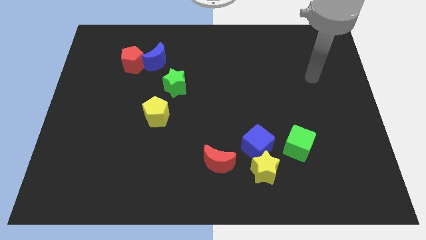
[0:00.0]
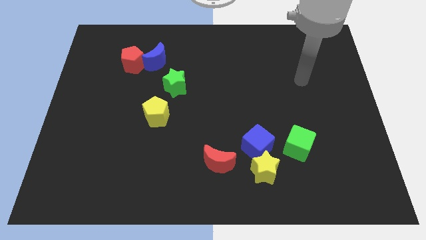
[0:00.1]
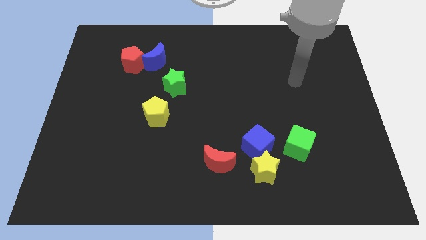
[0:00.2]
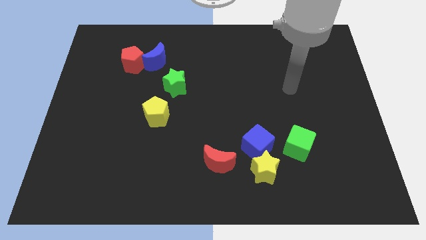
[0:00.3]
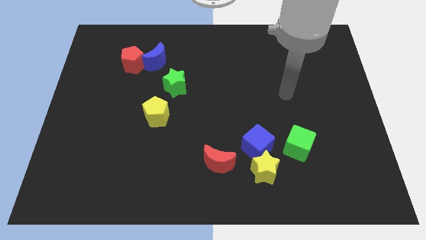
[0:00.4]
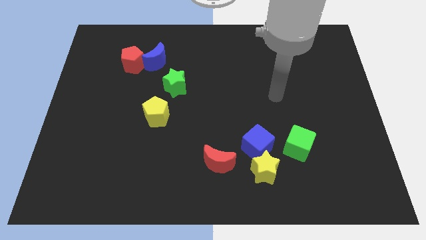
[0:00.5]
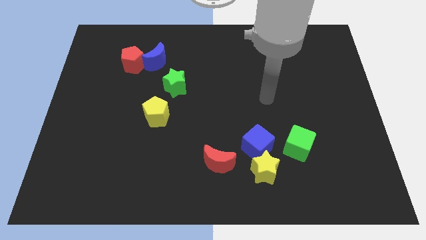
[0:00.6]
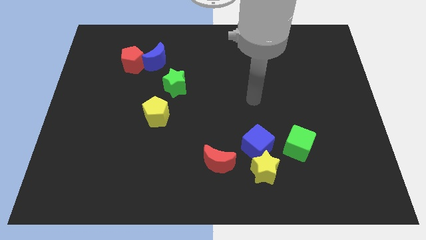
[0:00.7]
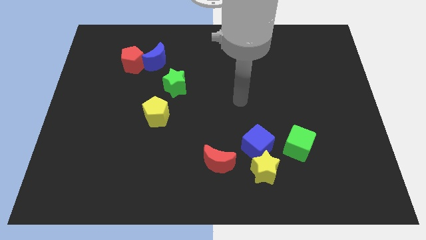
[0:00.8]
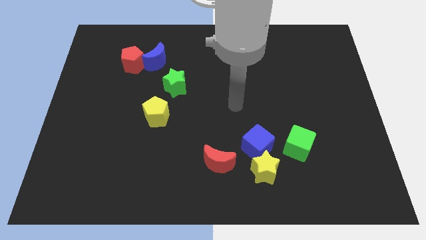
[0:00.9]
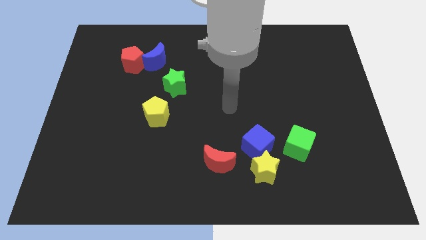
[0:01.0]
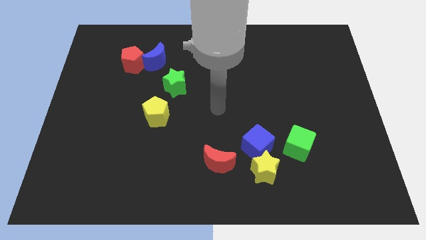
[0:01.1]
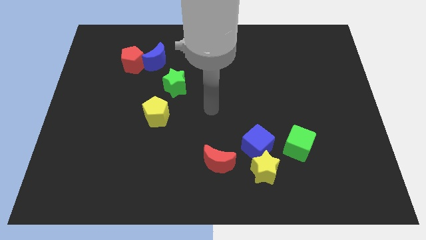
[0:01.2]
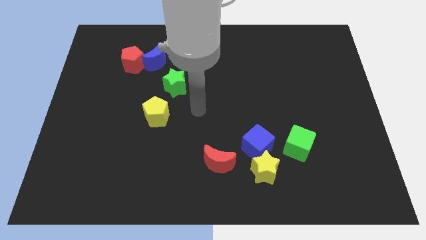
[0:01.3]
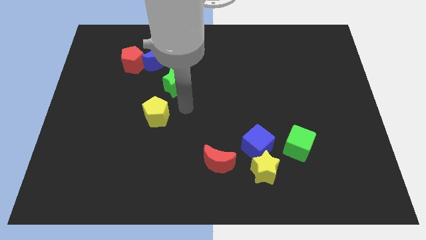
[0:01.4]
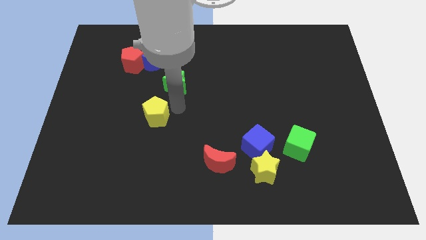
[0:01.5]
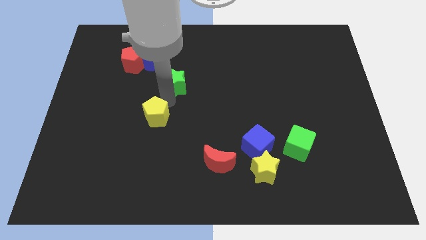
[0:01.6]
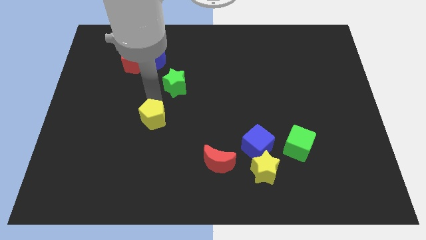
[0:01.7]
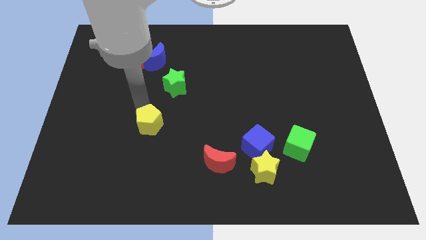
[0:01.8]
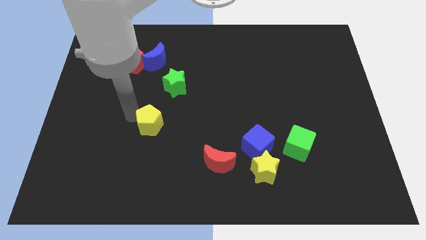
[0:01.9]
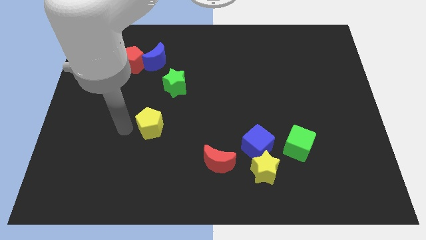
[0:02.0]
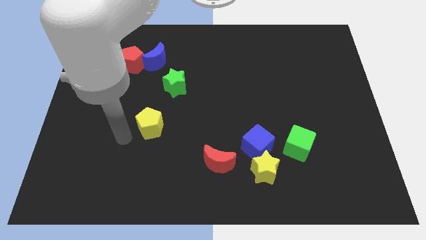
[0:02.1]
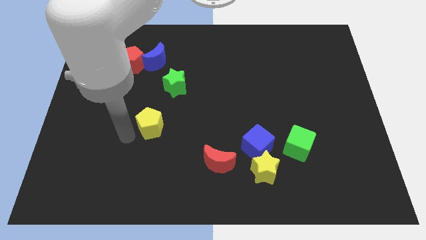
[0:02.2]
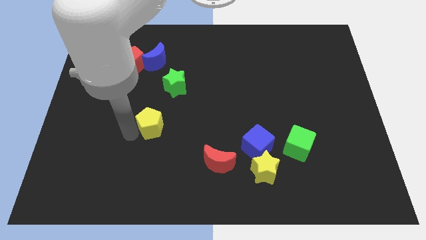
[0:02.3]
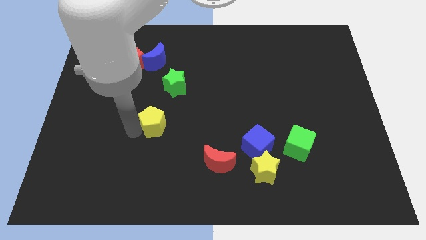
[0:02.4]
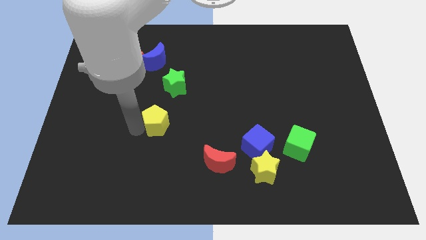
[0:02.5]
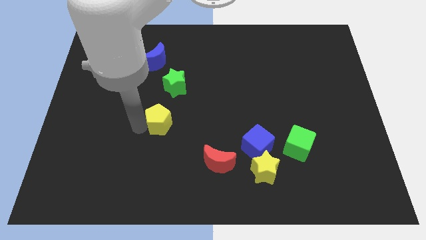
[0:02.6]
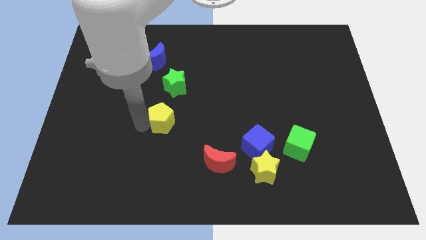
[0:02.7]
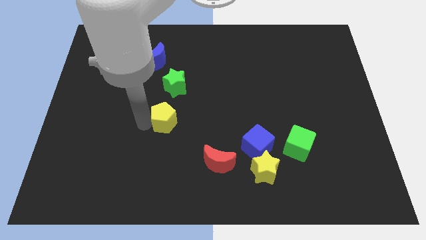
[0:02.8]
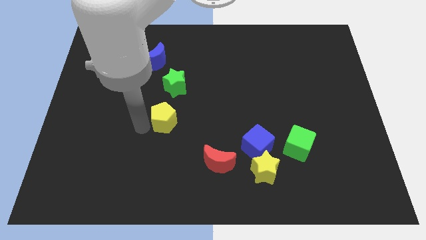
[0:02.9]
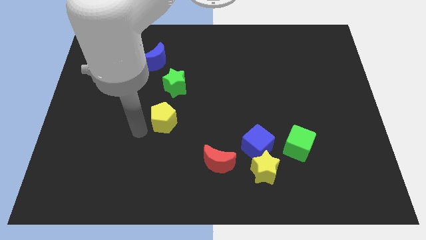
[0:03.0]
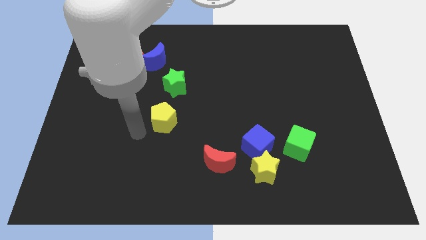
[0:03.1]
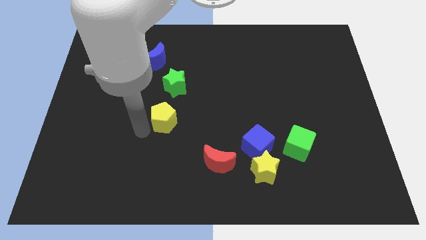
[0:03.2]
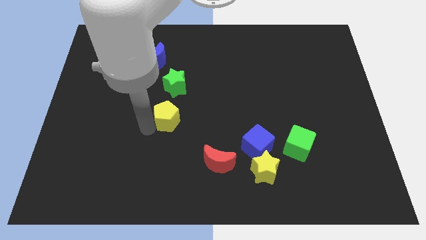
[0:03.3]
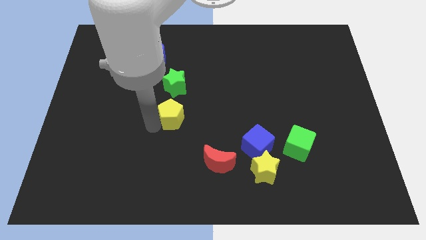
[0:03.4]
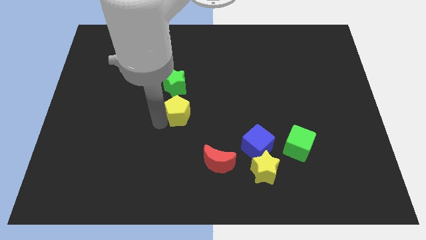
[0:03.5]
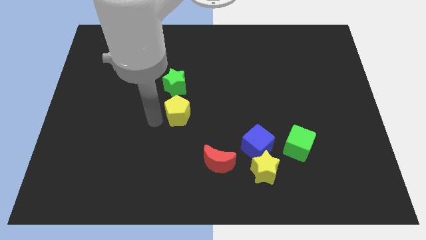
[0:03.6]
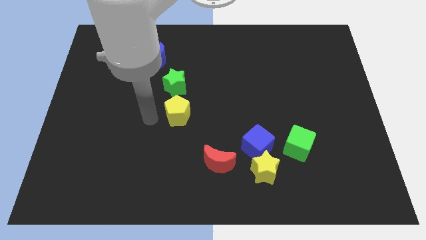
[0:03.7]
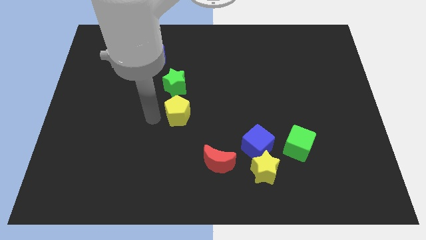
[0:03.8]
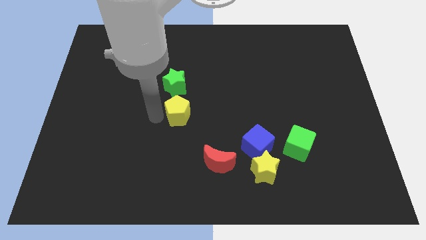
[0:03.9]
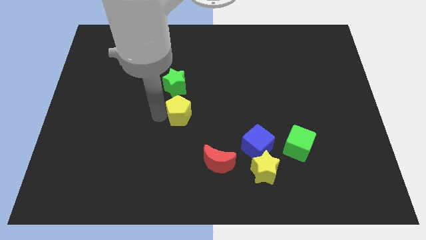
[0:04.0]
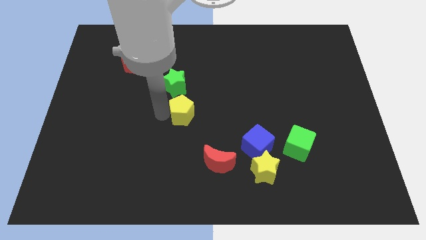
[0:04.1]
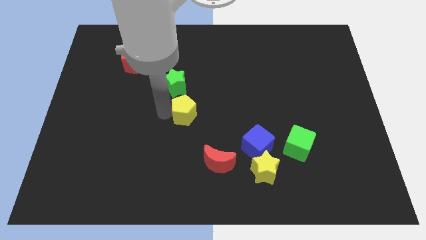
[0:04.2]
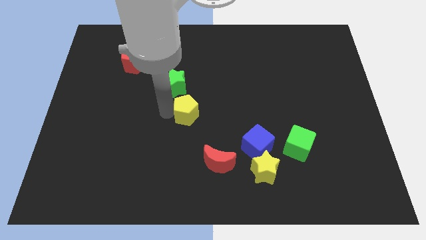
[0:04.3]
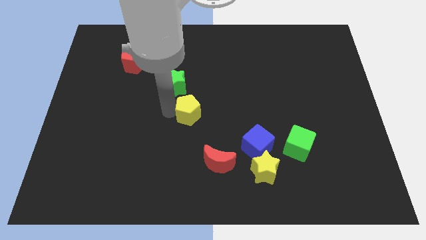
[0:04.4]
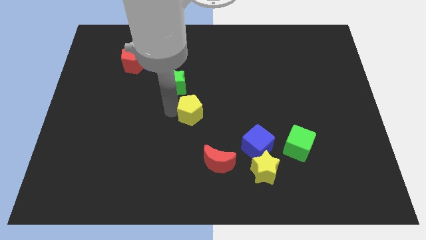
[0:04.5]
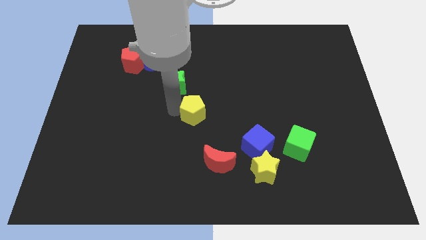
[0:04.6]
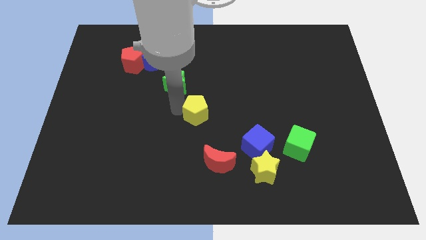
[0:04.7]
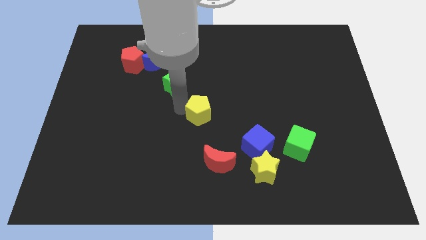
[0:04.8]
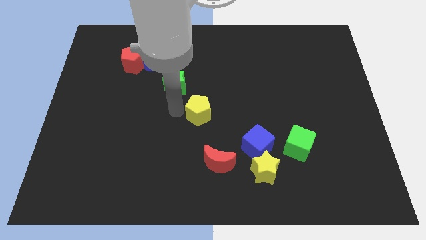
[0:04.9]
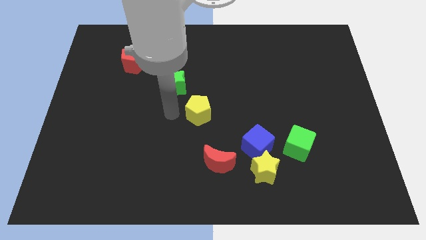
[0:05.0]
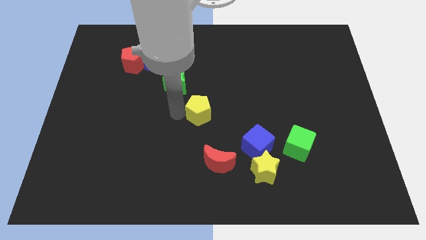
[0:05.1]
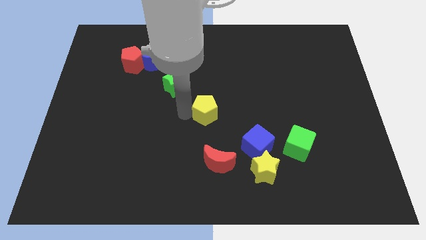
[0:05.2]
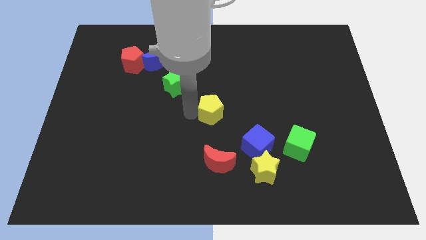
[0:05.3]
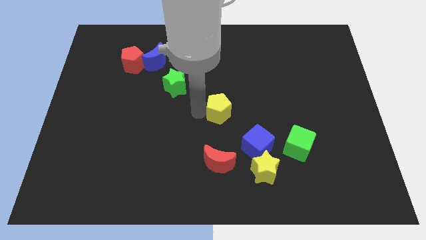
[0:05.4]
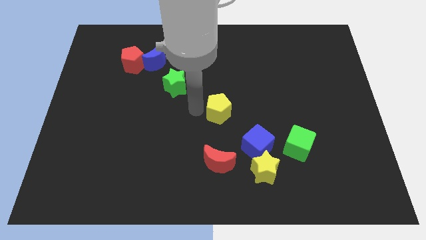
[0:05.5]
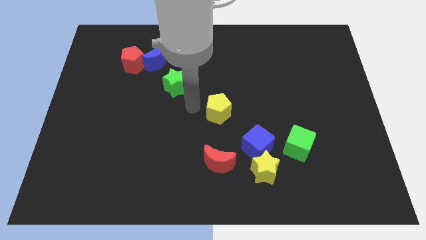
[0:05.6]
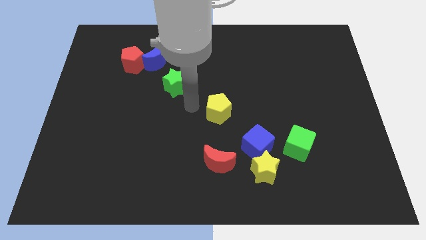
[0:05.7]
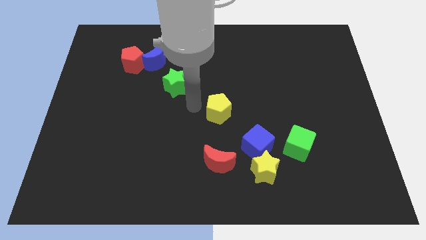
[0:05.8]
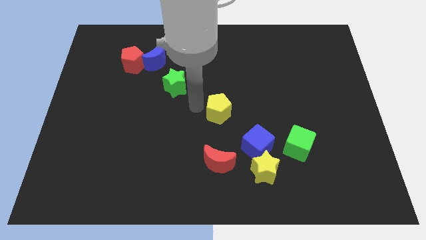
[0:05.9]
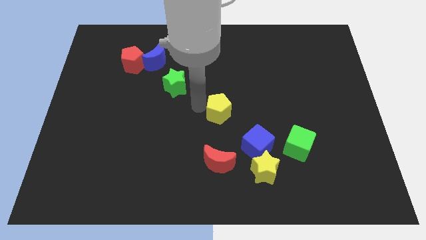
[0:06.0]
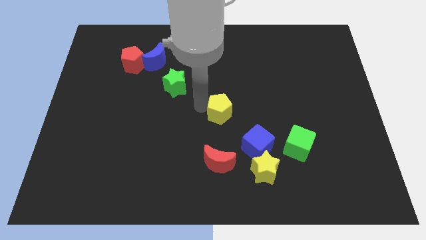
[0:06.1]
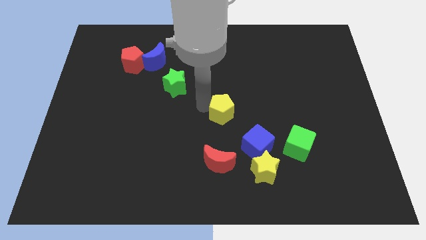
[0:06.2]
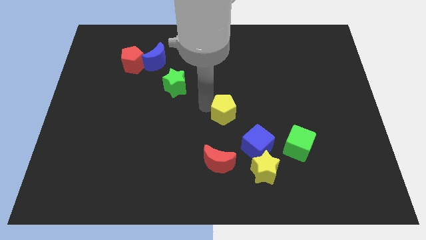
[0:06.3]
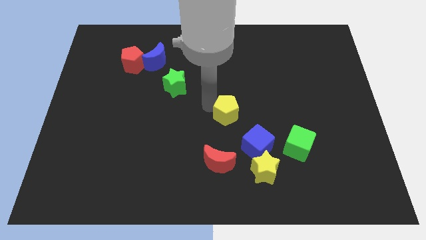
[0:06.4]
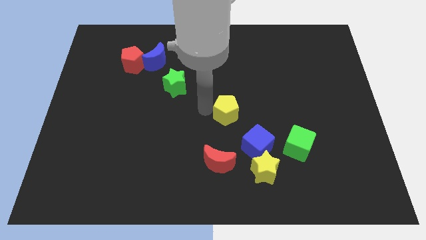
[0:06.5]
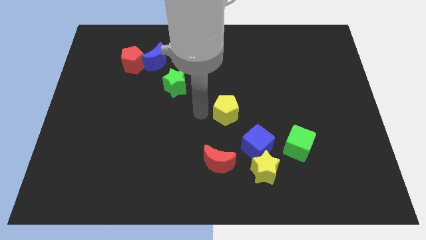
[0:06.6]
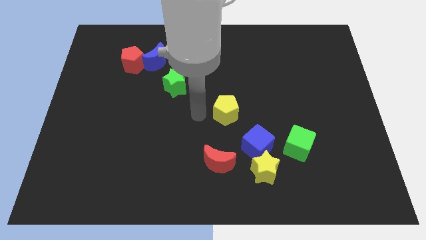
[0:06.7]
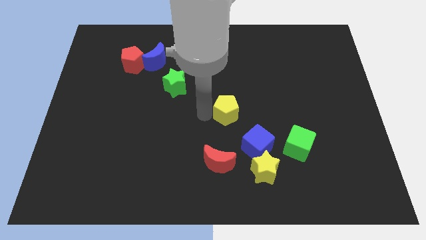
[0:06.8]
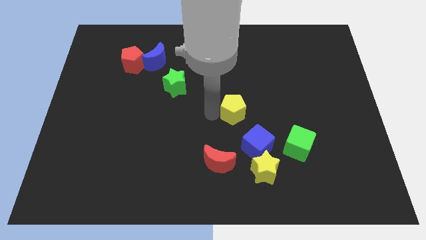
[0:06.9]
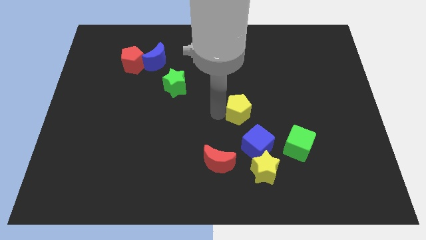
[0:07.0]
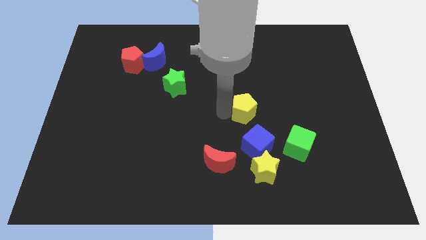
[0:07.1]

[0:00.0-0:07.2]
push the yellow pentagon to the right

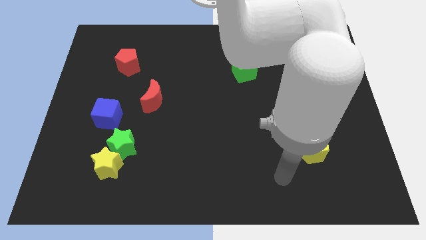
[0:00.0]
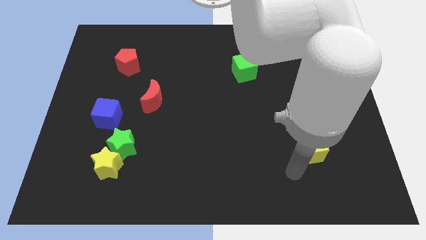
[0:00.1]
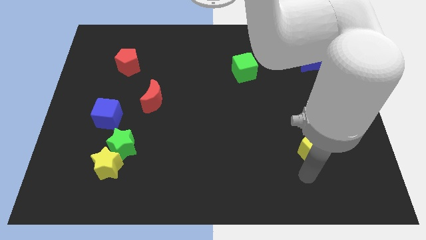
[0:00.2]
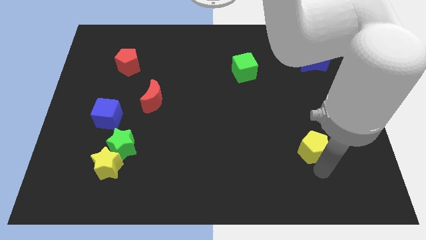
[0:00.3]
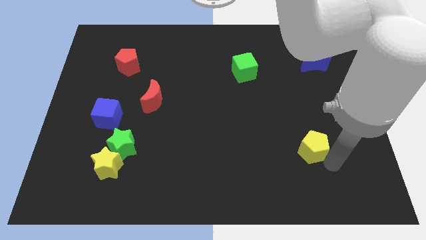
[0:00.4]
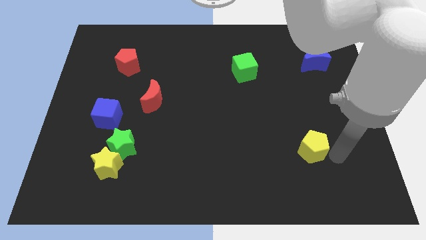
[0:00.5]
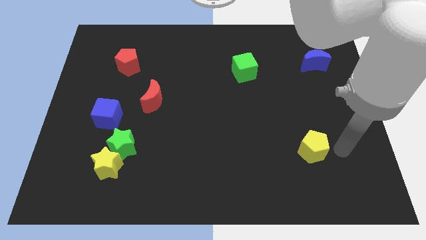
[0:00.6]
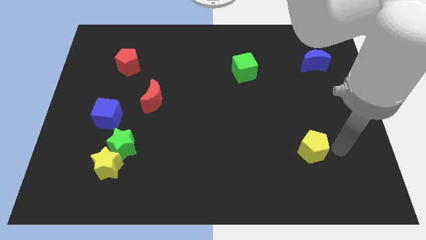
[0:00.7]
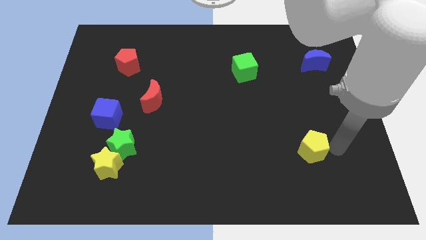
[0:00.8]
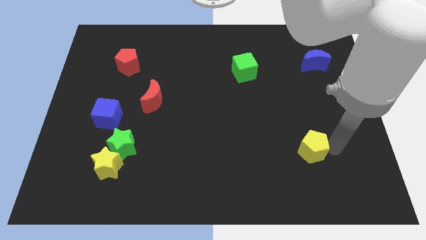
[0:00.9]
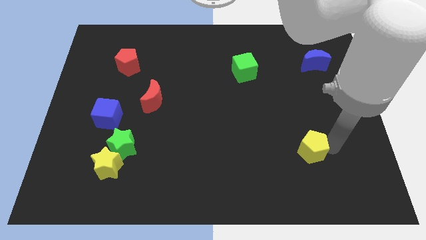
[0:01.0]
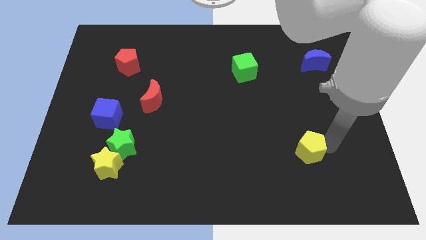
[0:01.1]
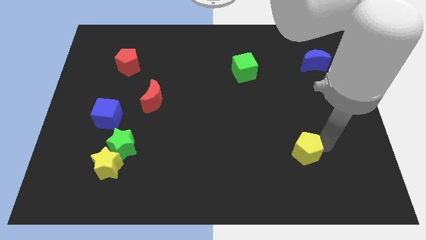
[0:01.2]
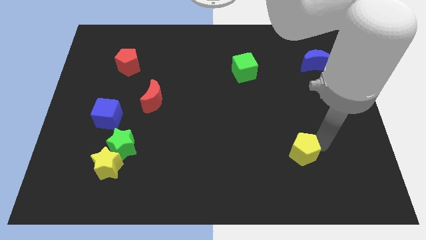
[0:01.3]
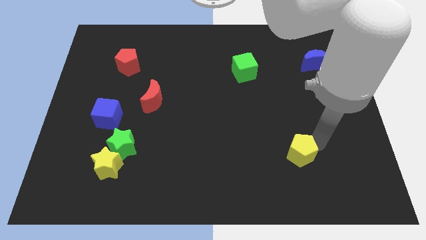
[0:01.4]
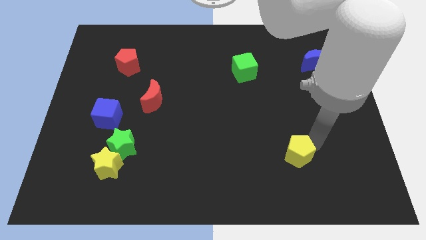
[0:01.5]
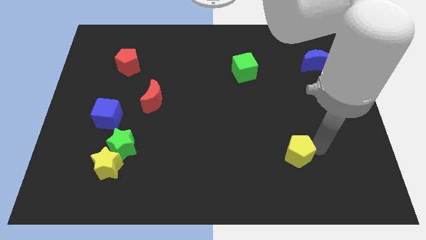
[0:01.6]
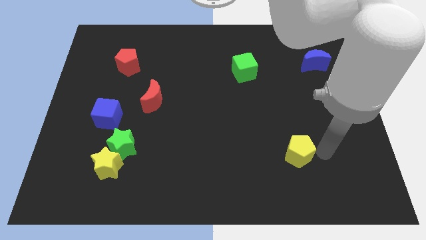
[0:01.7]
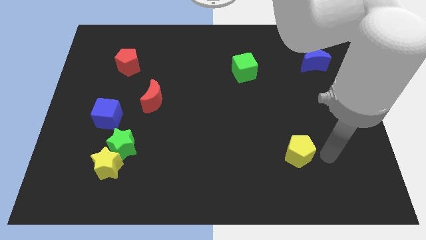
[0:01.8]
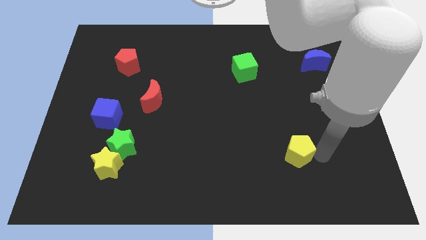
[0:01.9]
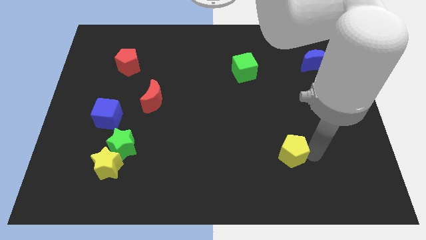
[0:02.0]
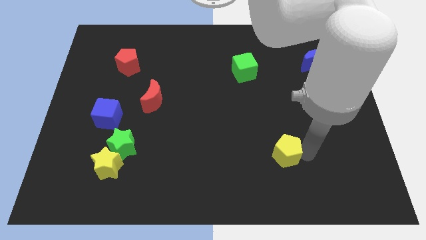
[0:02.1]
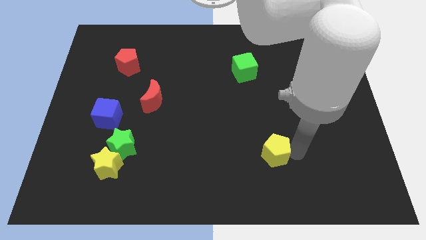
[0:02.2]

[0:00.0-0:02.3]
push the yellow pentagon slightly to the left
